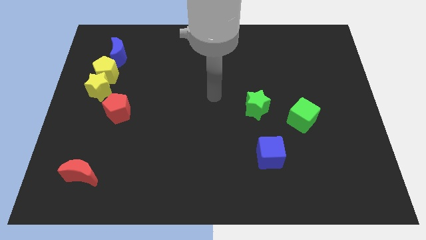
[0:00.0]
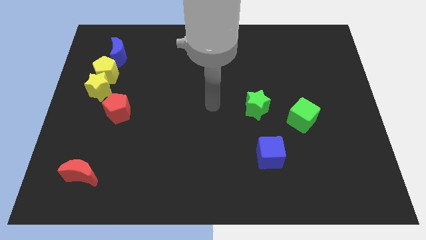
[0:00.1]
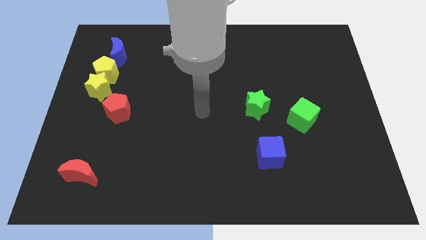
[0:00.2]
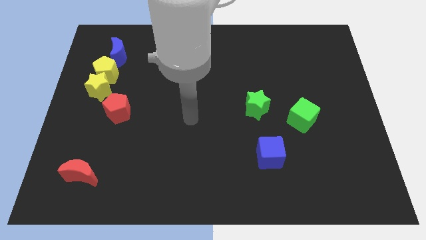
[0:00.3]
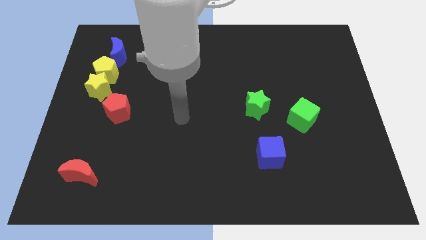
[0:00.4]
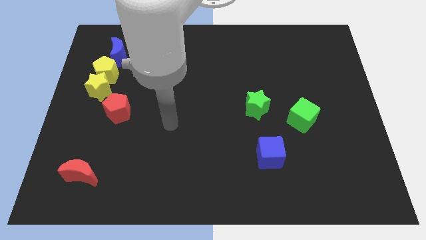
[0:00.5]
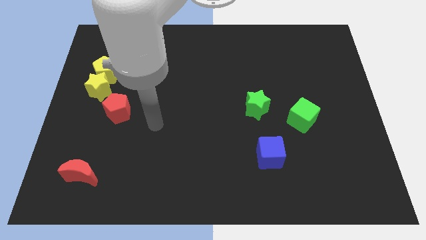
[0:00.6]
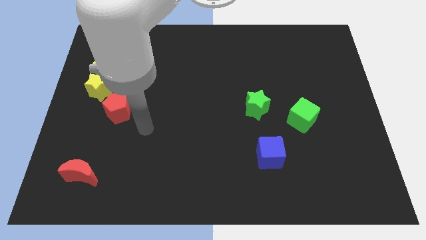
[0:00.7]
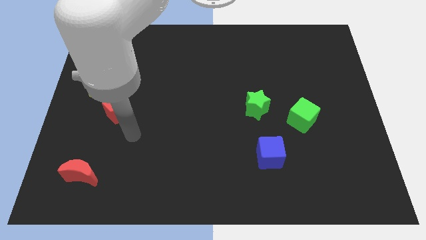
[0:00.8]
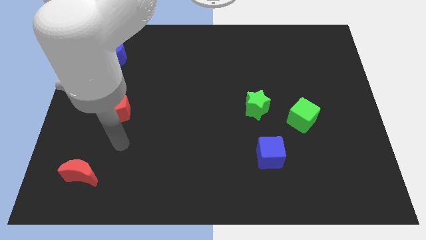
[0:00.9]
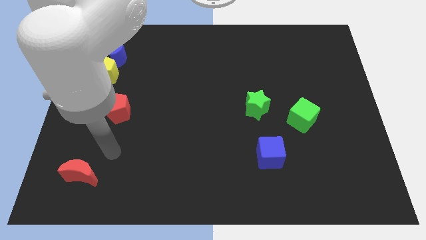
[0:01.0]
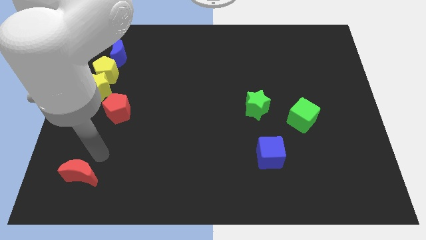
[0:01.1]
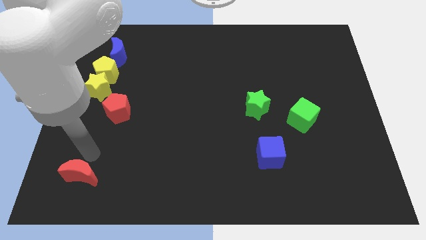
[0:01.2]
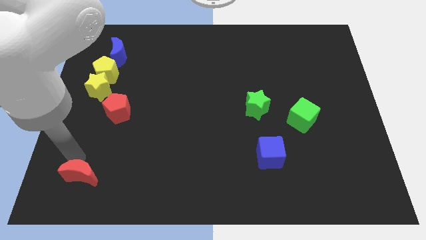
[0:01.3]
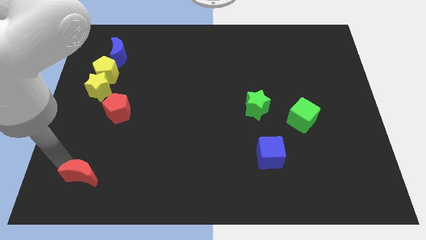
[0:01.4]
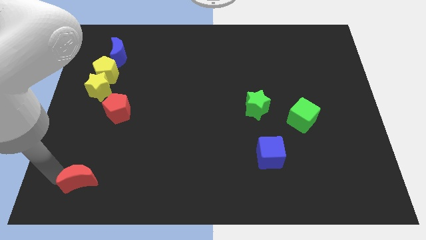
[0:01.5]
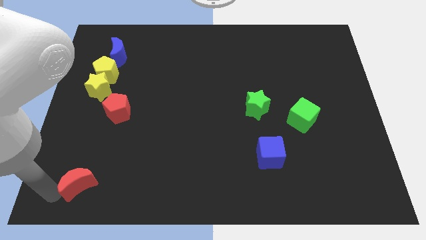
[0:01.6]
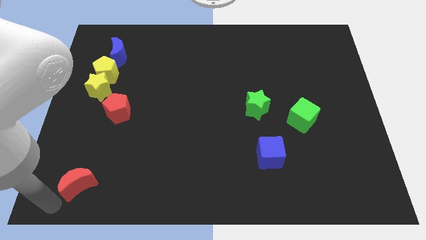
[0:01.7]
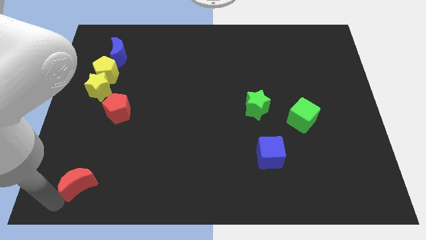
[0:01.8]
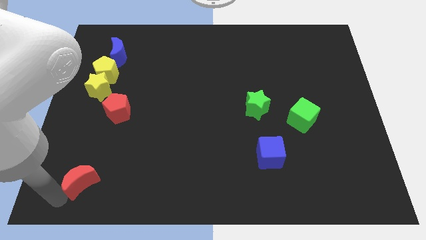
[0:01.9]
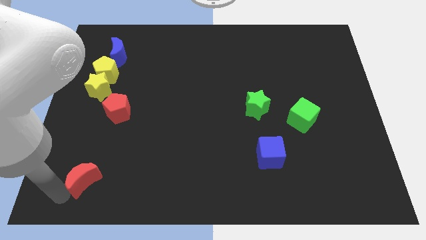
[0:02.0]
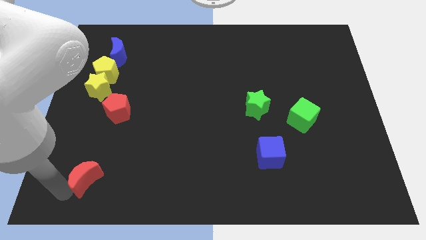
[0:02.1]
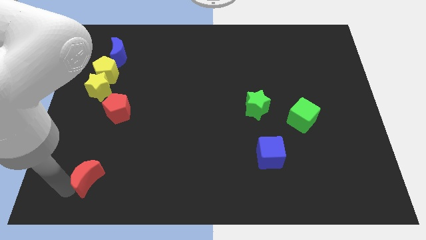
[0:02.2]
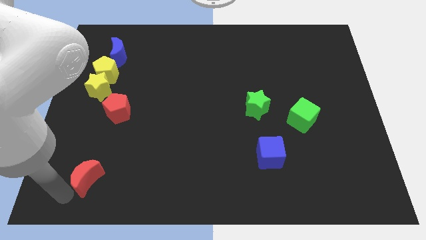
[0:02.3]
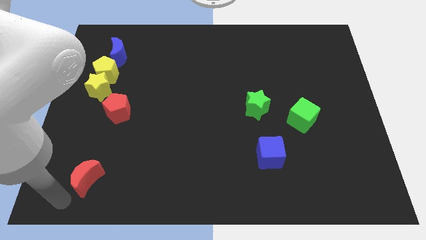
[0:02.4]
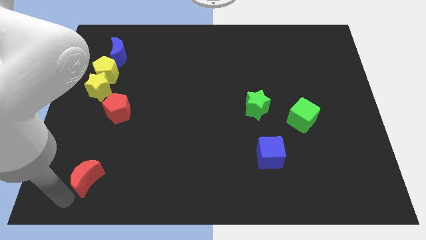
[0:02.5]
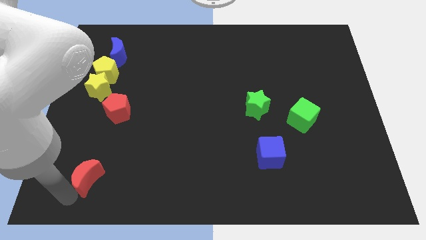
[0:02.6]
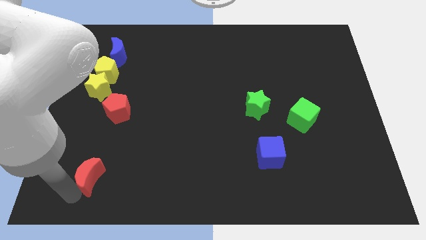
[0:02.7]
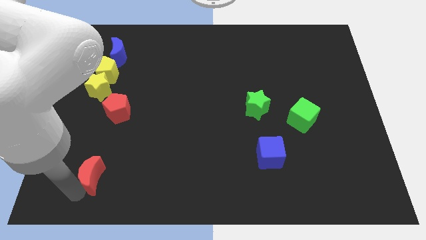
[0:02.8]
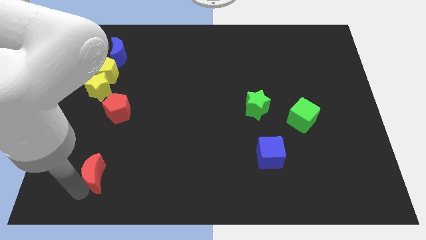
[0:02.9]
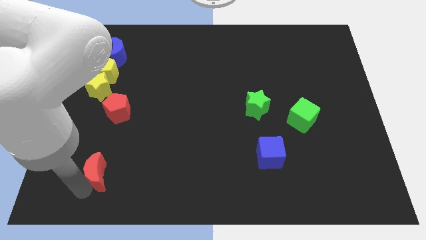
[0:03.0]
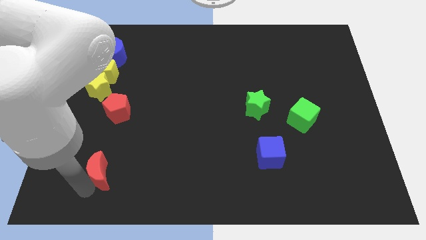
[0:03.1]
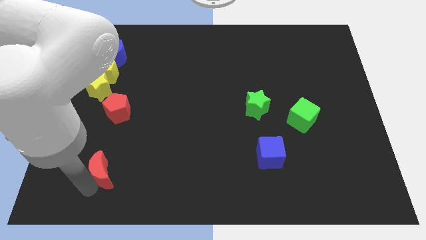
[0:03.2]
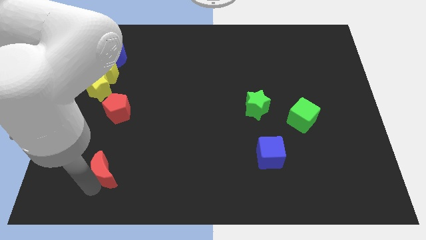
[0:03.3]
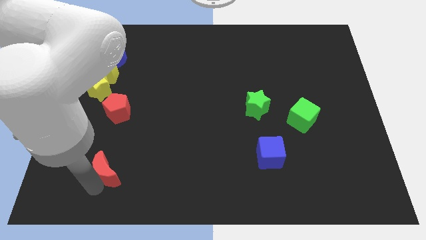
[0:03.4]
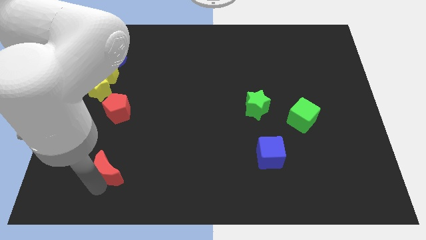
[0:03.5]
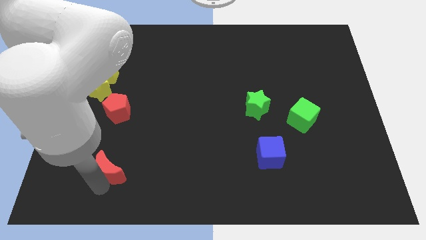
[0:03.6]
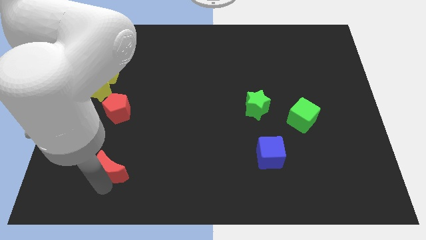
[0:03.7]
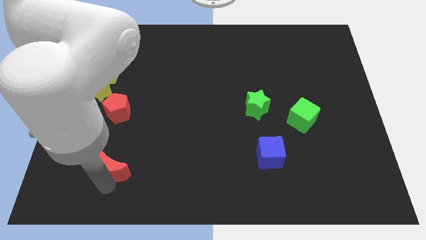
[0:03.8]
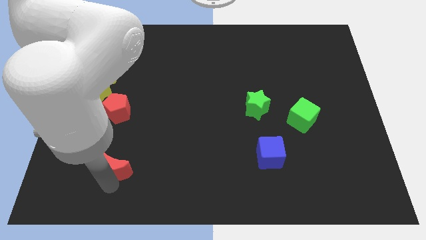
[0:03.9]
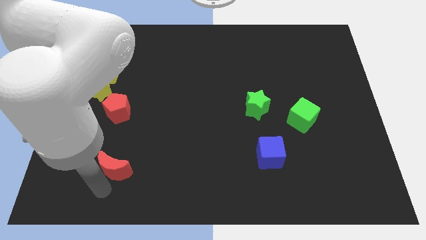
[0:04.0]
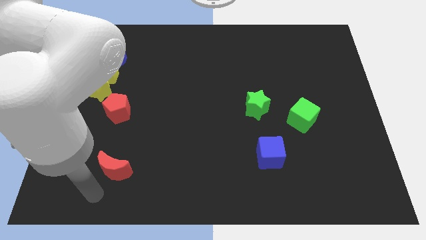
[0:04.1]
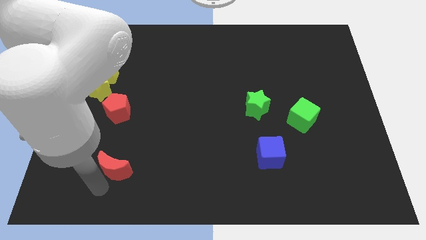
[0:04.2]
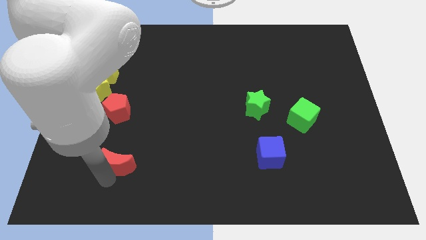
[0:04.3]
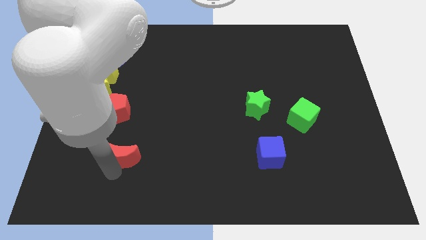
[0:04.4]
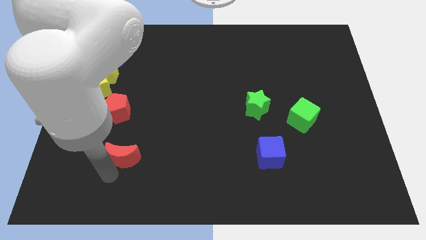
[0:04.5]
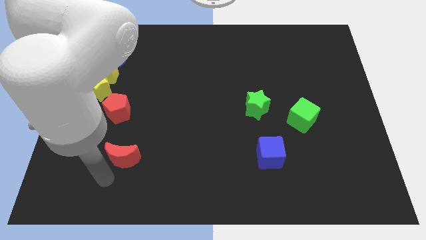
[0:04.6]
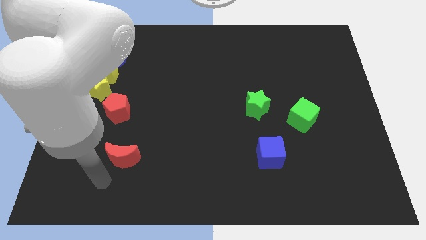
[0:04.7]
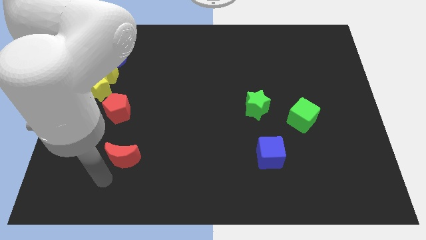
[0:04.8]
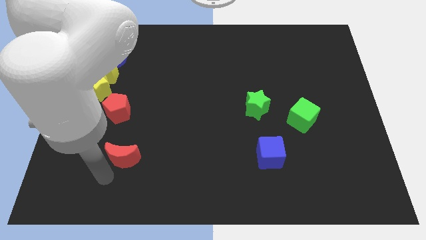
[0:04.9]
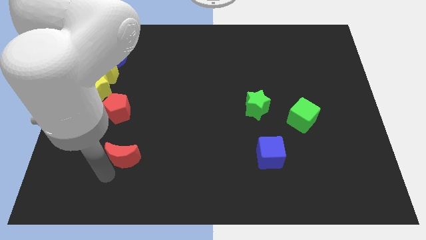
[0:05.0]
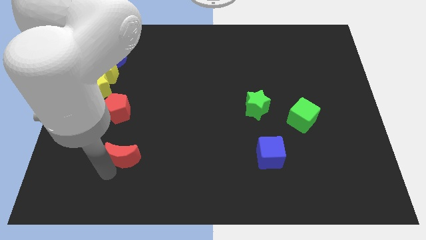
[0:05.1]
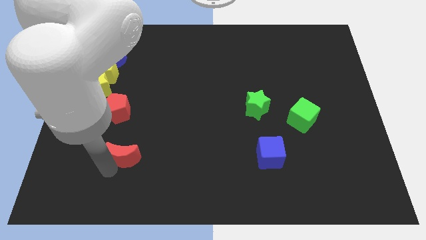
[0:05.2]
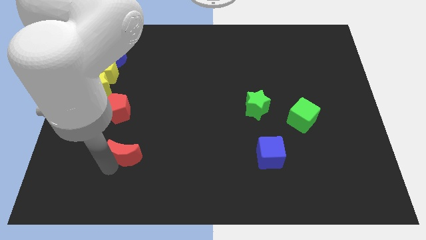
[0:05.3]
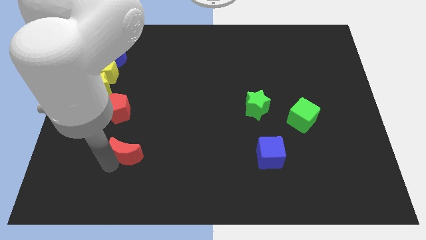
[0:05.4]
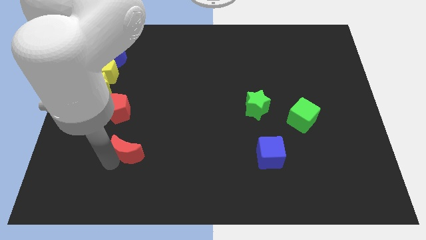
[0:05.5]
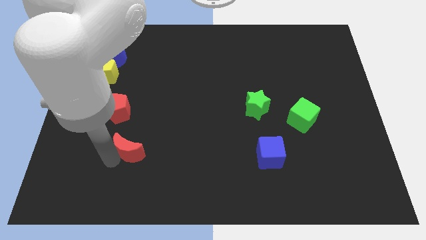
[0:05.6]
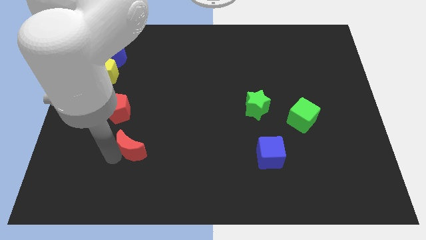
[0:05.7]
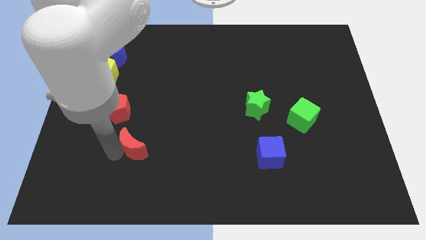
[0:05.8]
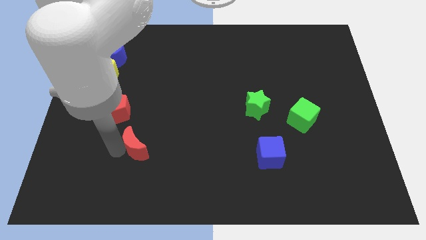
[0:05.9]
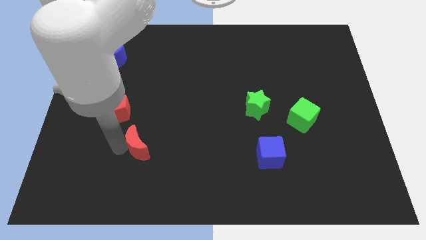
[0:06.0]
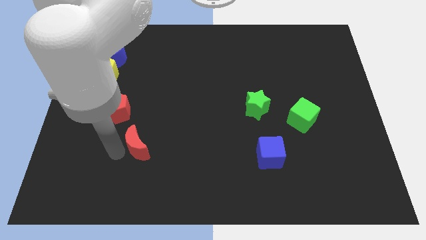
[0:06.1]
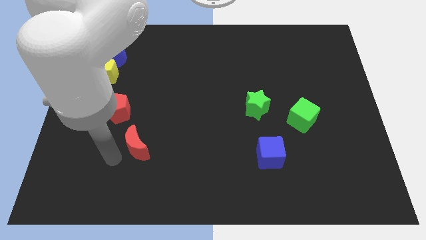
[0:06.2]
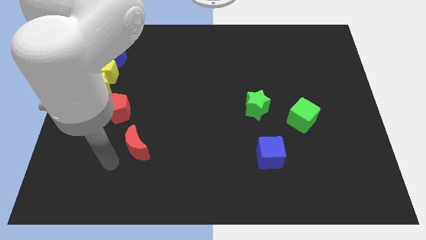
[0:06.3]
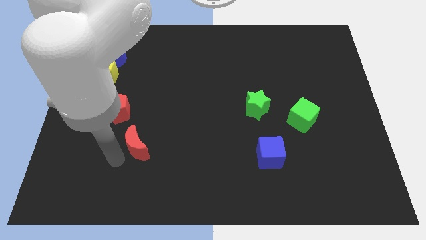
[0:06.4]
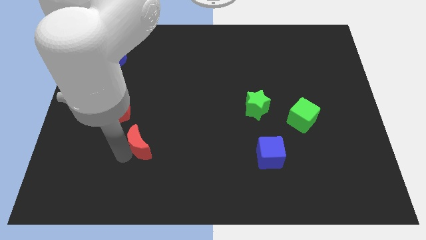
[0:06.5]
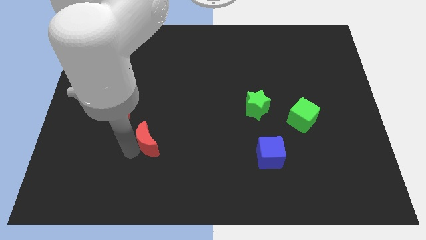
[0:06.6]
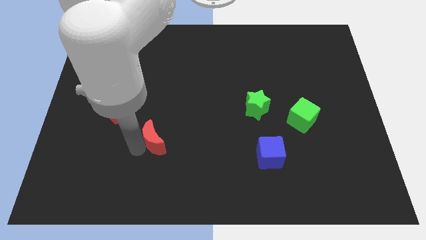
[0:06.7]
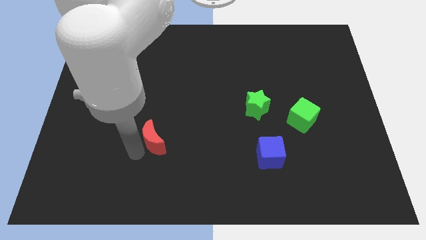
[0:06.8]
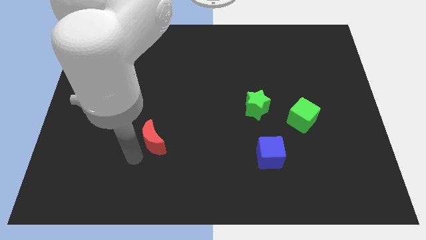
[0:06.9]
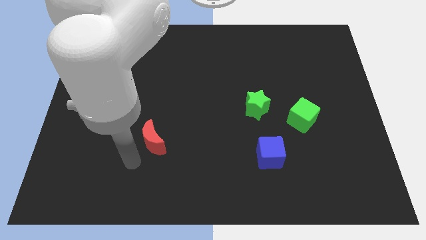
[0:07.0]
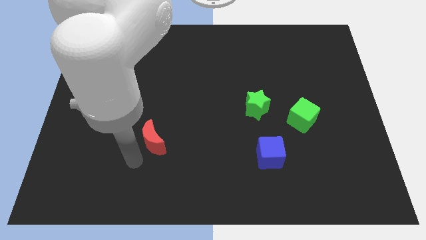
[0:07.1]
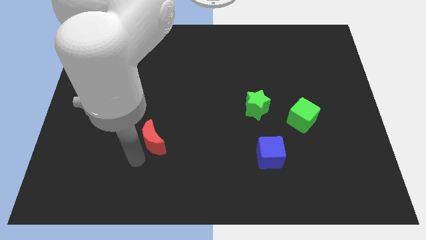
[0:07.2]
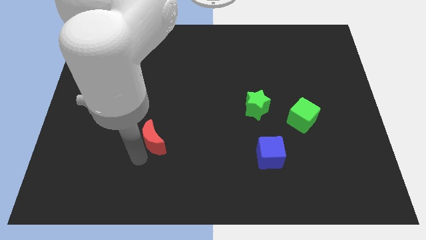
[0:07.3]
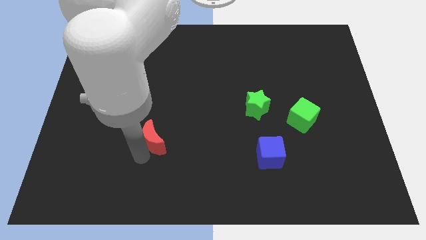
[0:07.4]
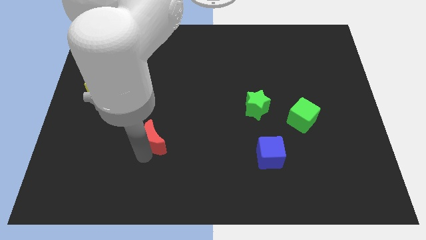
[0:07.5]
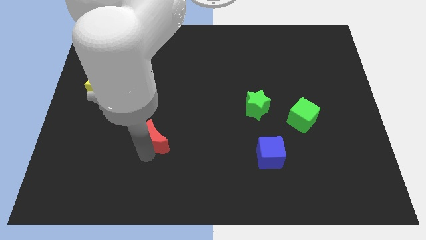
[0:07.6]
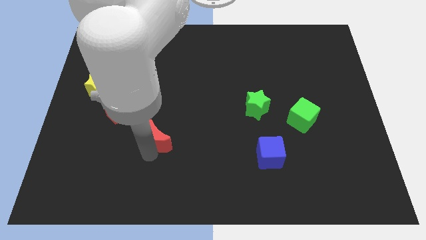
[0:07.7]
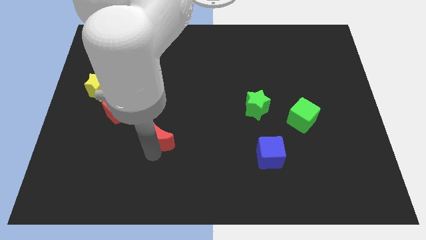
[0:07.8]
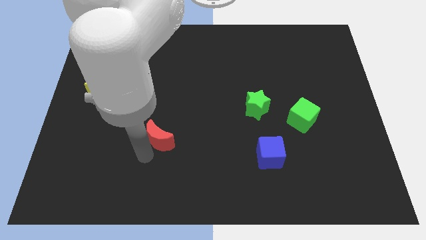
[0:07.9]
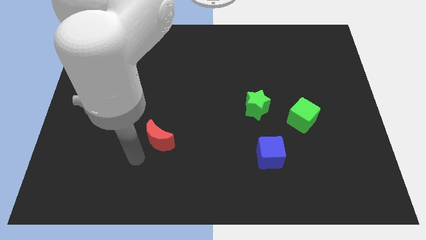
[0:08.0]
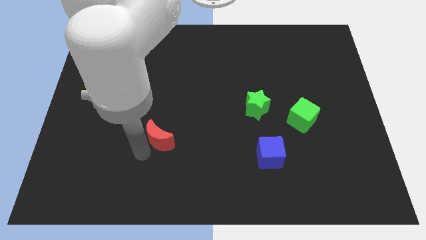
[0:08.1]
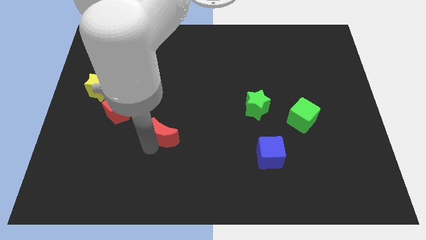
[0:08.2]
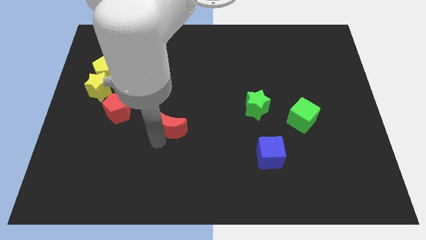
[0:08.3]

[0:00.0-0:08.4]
slide the red moon to the middle of the board
